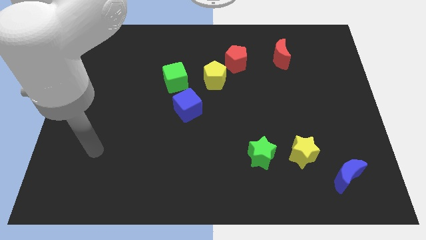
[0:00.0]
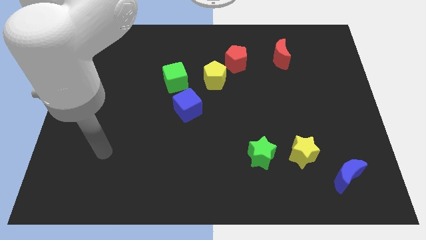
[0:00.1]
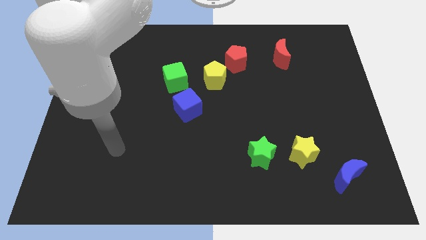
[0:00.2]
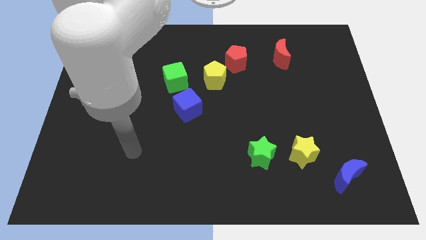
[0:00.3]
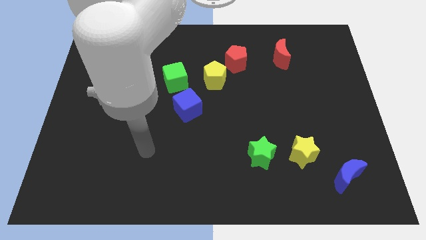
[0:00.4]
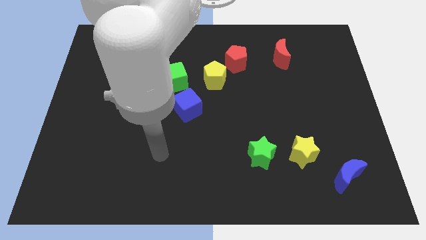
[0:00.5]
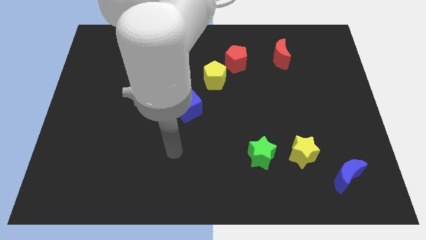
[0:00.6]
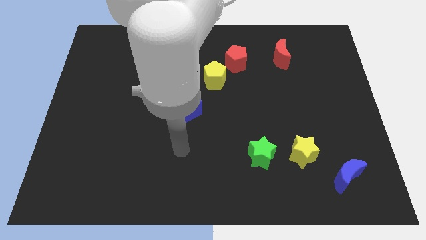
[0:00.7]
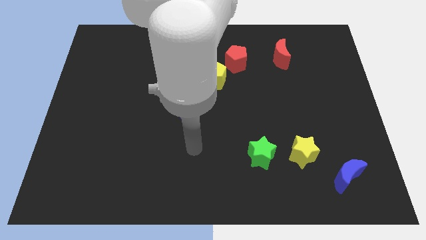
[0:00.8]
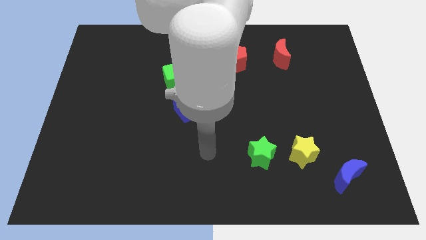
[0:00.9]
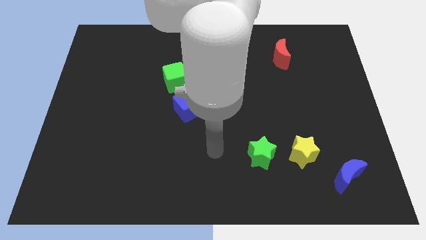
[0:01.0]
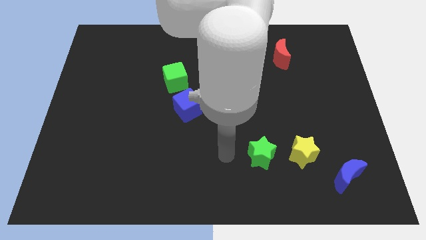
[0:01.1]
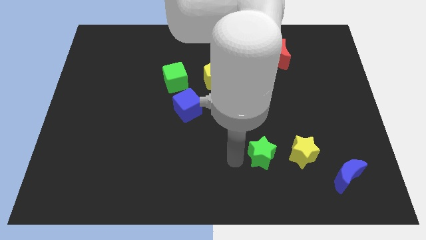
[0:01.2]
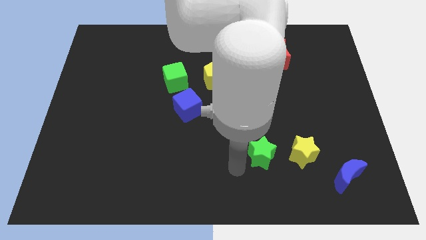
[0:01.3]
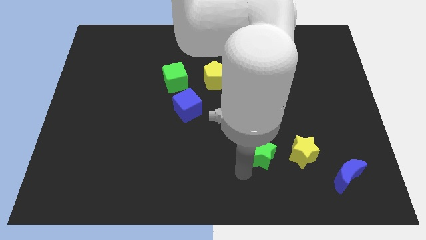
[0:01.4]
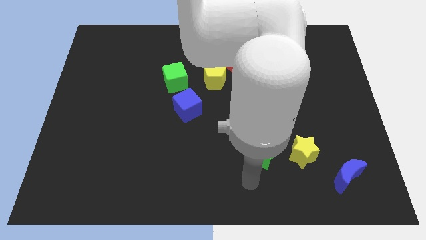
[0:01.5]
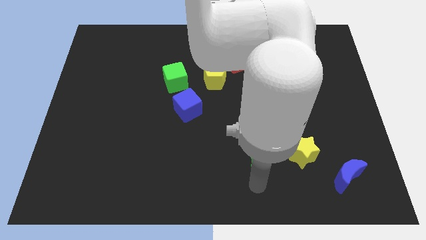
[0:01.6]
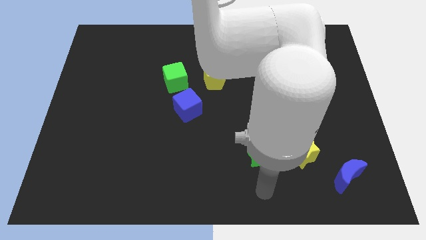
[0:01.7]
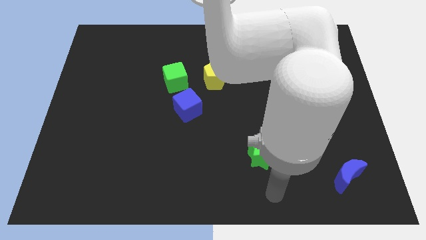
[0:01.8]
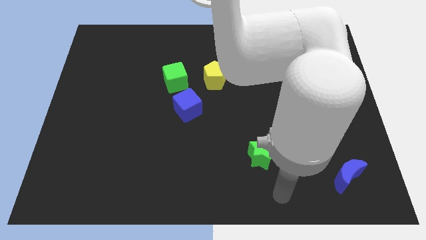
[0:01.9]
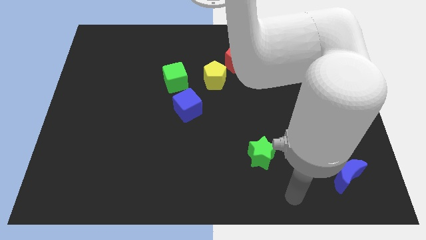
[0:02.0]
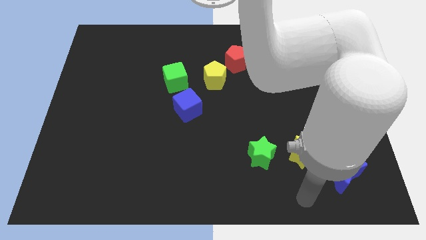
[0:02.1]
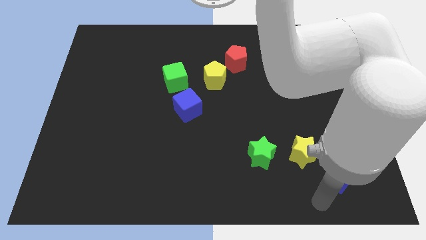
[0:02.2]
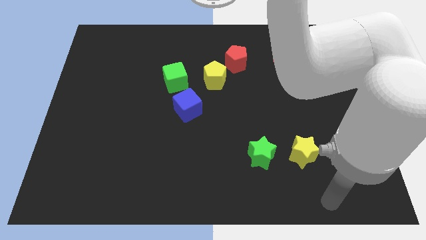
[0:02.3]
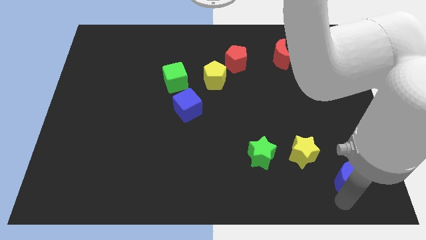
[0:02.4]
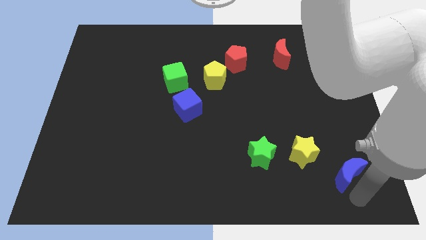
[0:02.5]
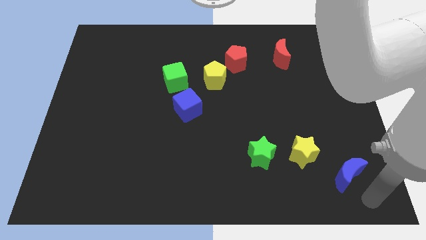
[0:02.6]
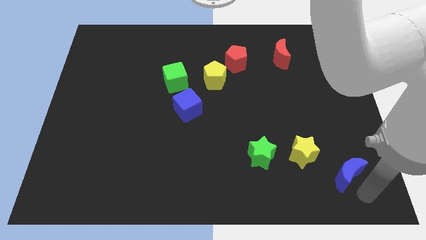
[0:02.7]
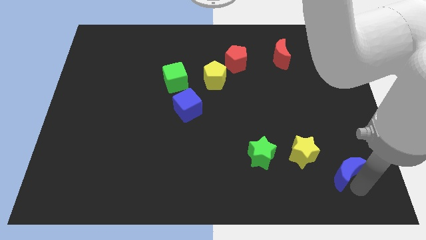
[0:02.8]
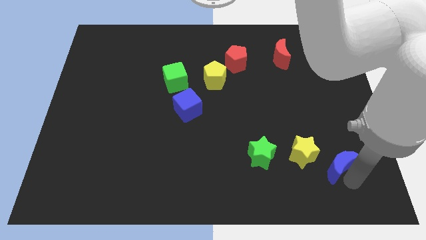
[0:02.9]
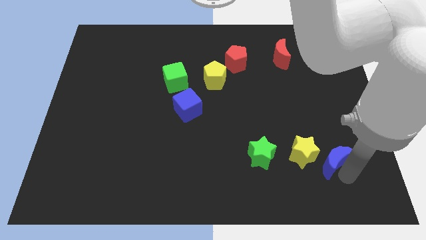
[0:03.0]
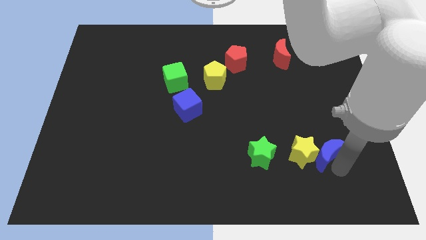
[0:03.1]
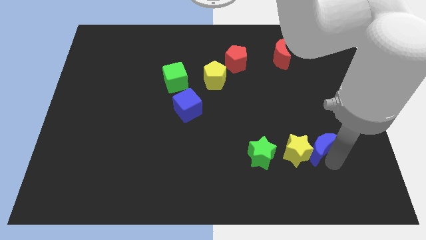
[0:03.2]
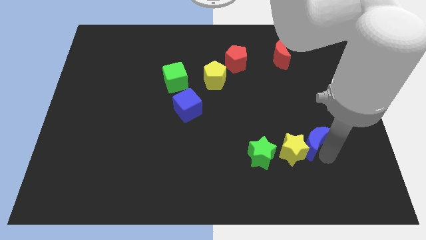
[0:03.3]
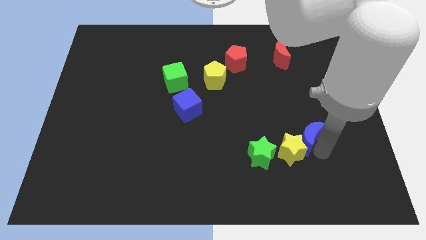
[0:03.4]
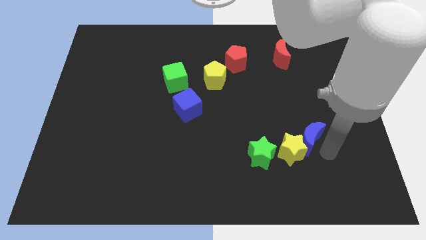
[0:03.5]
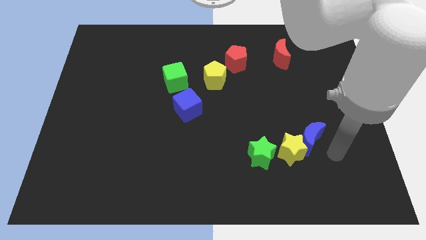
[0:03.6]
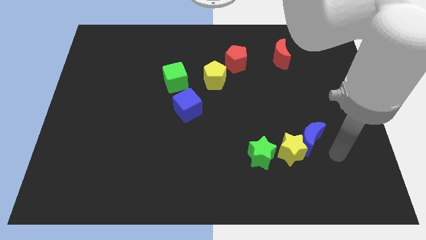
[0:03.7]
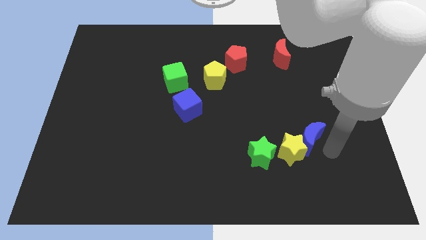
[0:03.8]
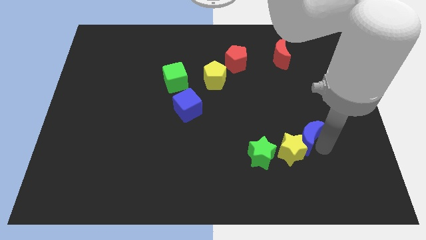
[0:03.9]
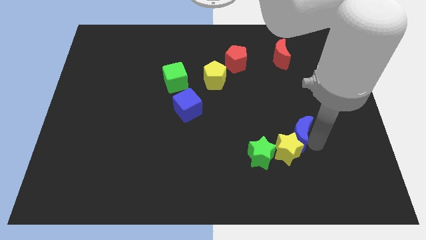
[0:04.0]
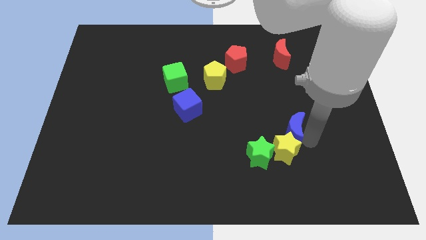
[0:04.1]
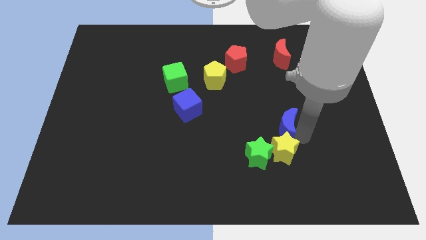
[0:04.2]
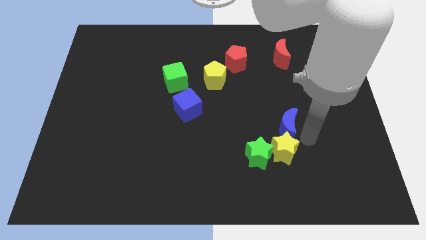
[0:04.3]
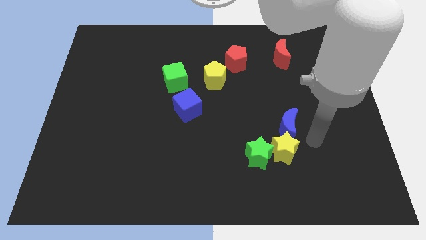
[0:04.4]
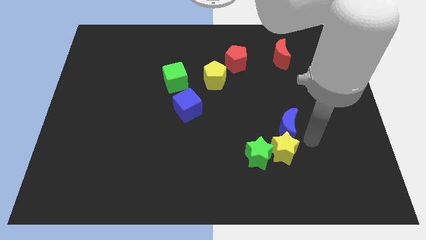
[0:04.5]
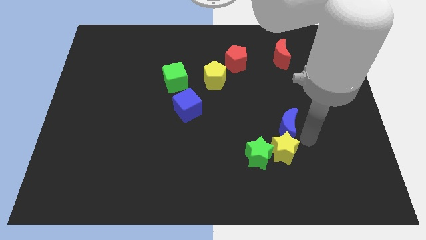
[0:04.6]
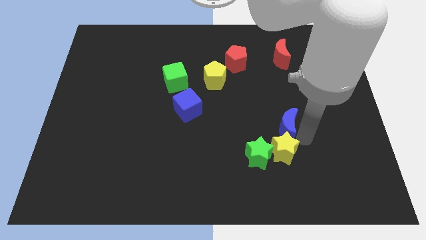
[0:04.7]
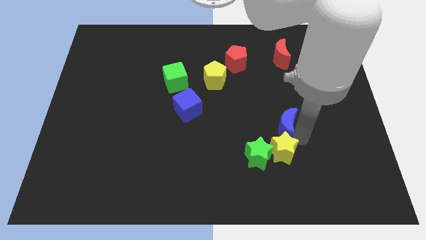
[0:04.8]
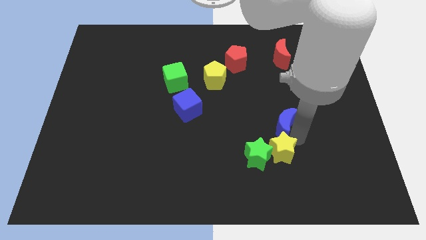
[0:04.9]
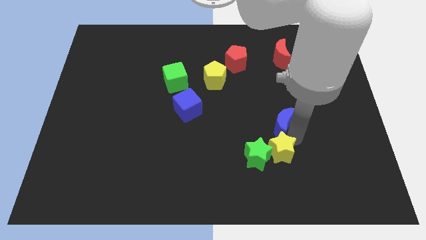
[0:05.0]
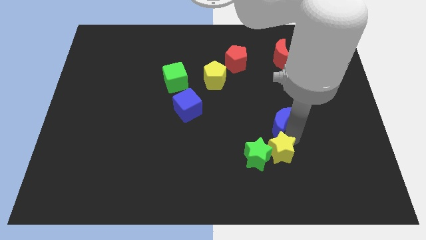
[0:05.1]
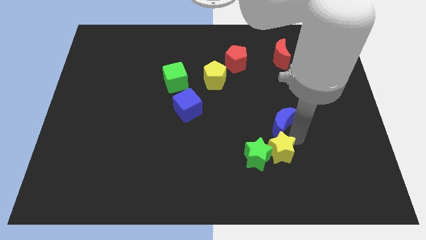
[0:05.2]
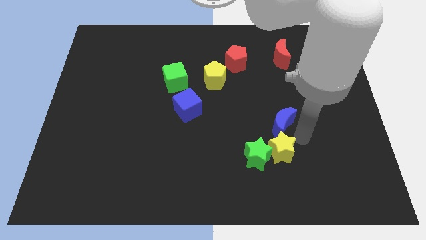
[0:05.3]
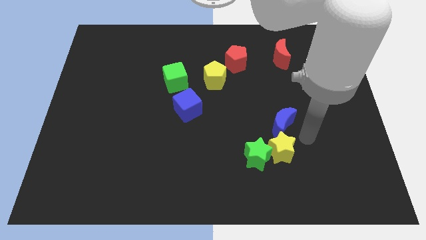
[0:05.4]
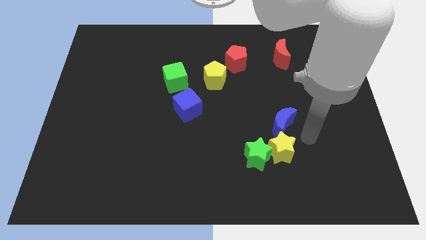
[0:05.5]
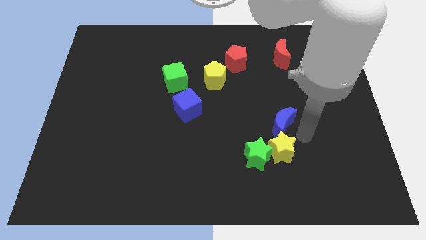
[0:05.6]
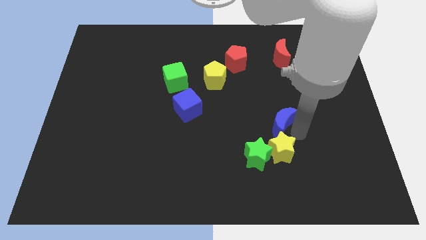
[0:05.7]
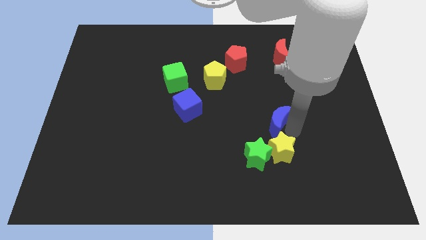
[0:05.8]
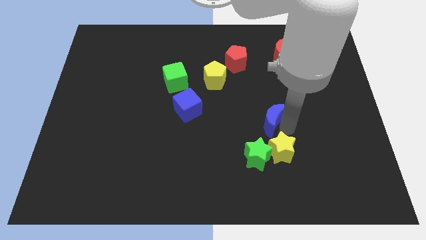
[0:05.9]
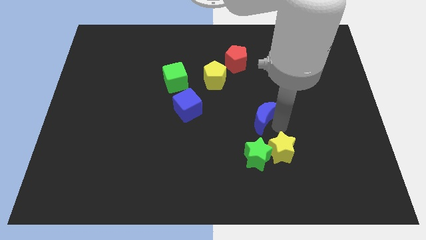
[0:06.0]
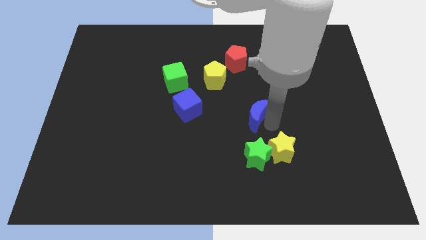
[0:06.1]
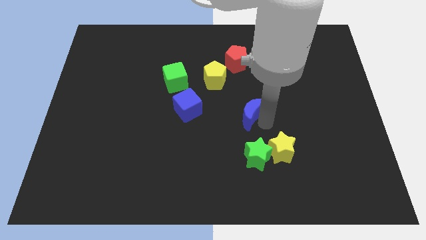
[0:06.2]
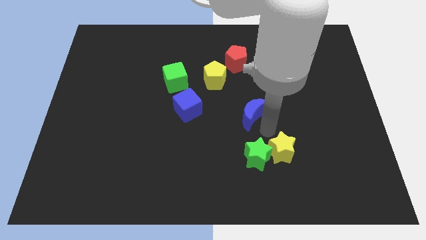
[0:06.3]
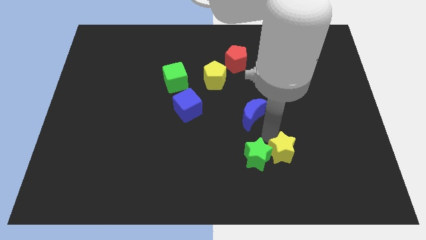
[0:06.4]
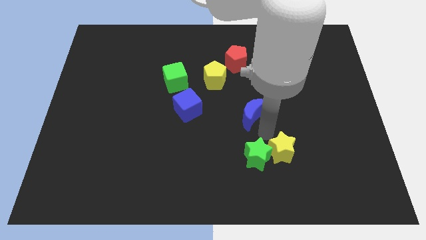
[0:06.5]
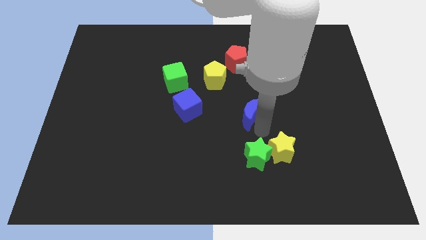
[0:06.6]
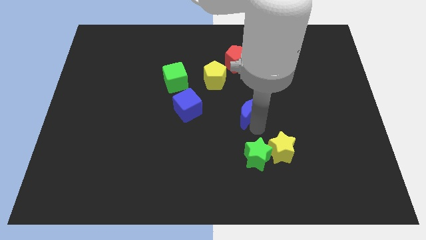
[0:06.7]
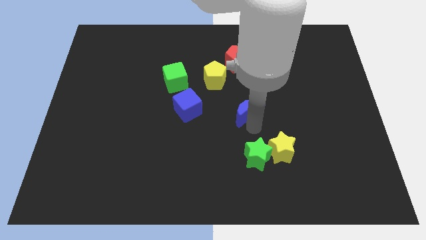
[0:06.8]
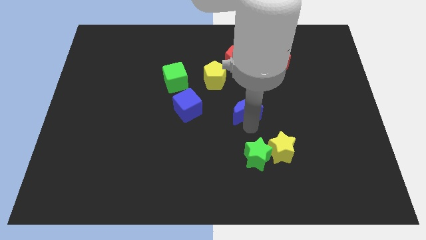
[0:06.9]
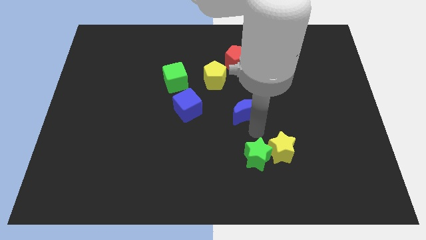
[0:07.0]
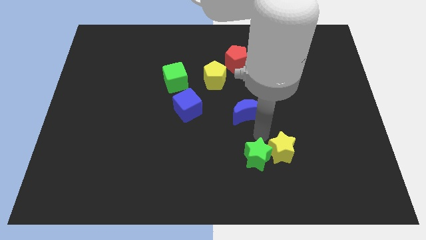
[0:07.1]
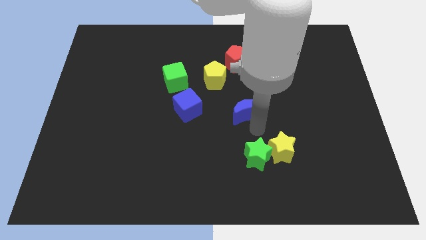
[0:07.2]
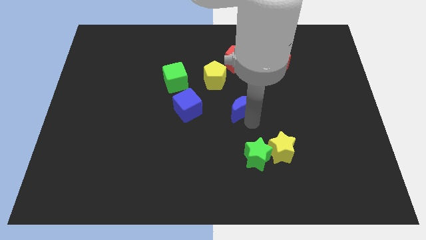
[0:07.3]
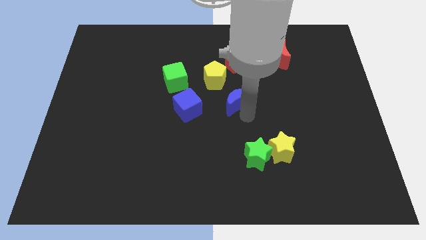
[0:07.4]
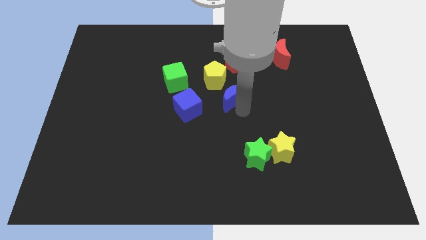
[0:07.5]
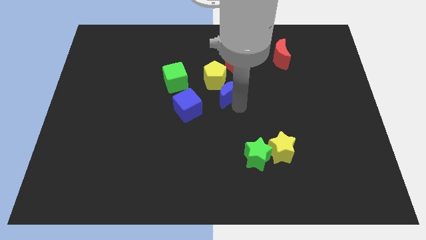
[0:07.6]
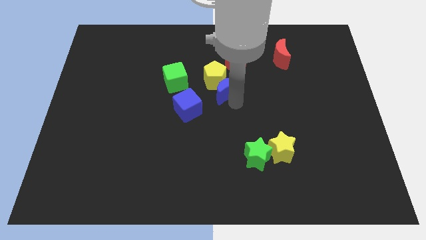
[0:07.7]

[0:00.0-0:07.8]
push the blue moon close to the yellow pentagon
